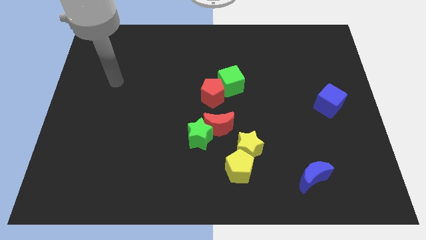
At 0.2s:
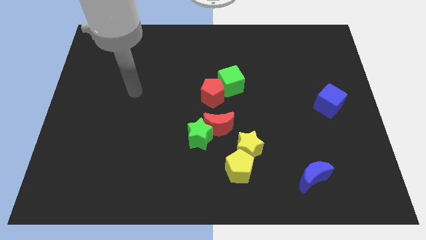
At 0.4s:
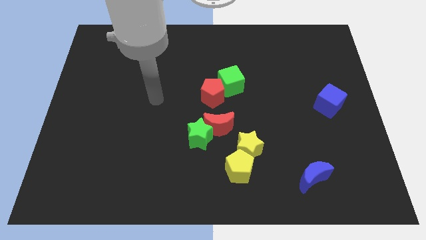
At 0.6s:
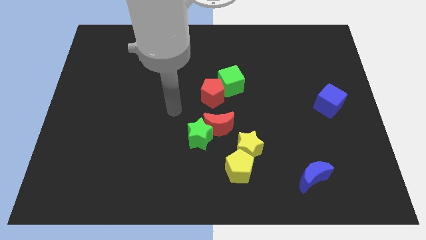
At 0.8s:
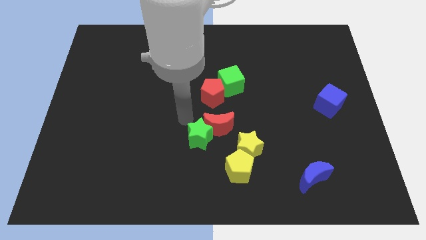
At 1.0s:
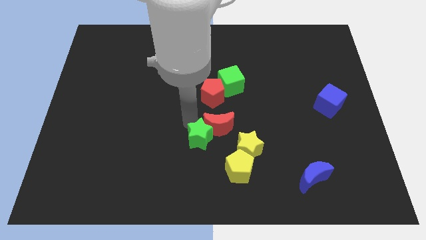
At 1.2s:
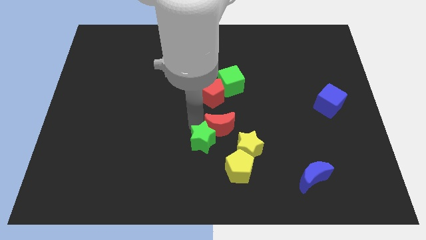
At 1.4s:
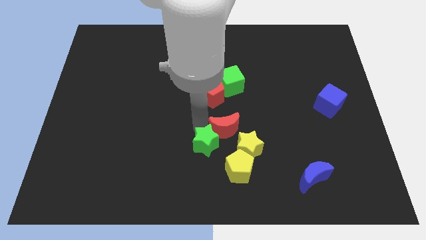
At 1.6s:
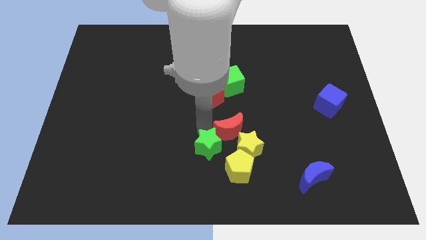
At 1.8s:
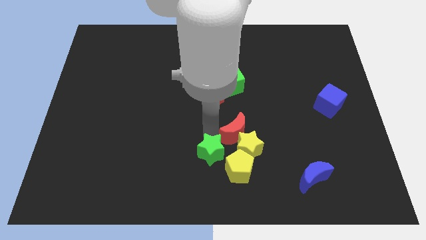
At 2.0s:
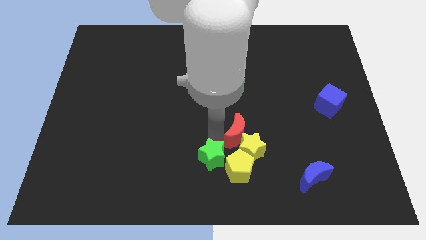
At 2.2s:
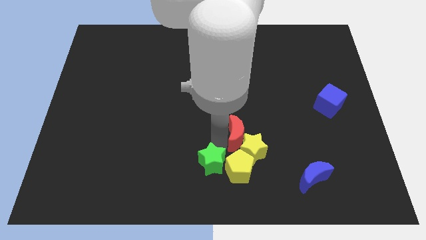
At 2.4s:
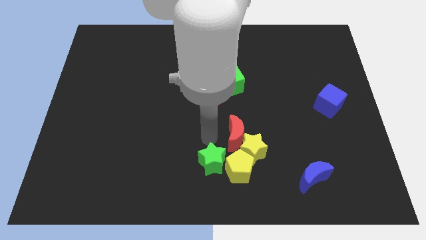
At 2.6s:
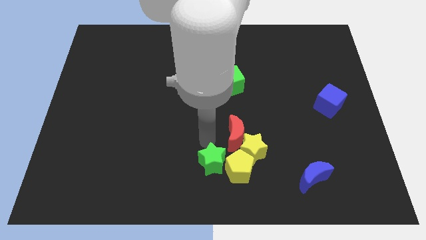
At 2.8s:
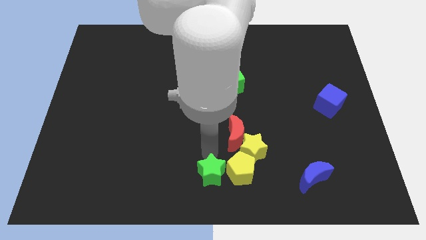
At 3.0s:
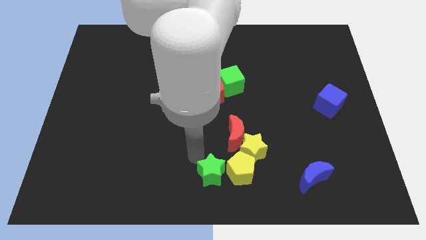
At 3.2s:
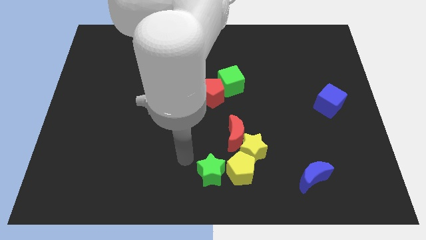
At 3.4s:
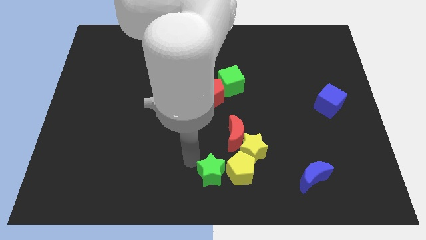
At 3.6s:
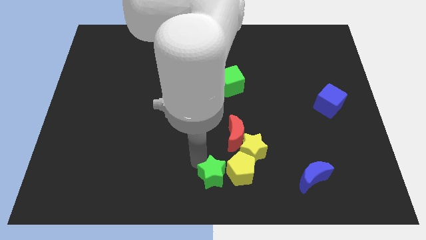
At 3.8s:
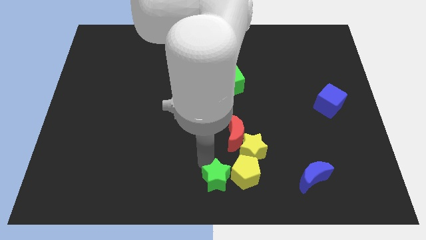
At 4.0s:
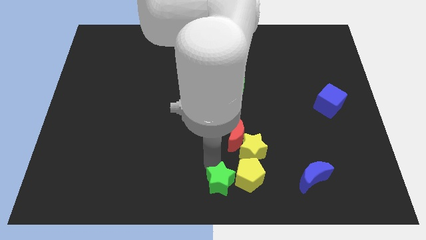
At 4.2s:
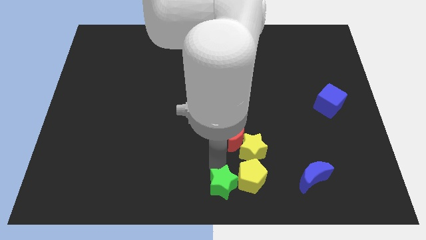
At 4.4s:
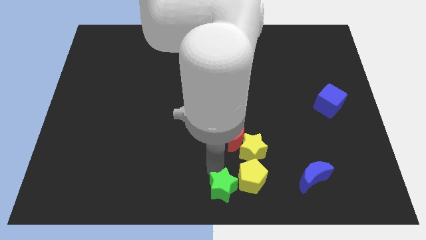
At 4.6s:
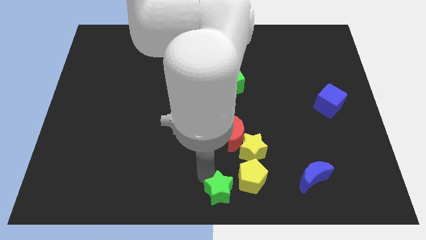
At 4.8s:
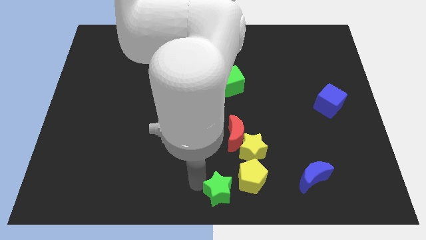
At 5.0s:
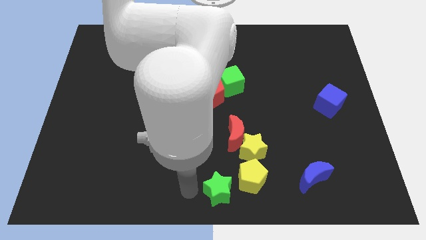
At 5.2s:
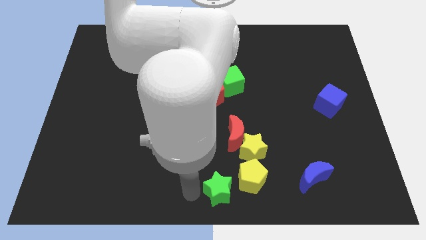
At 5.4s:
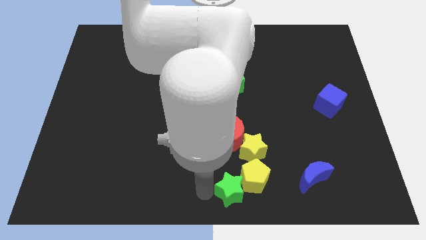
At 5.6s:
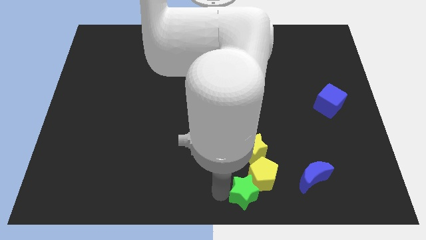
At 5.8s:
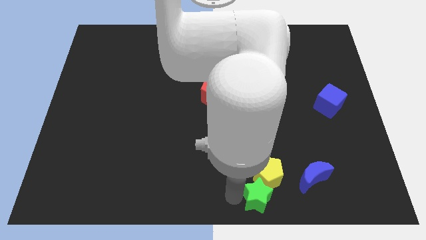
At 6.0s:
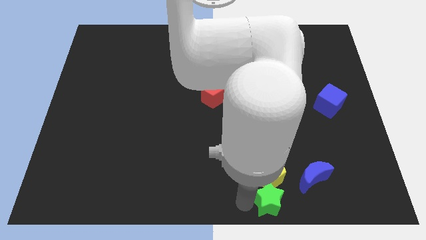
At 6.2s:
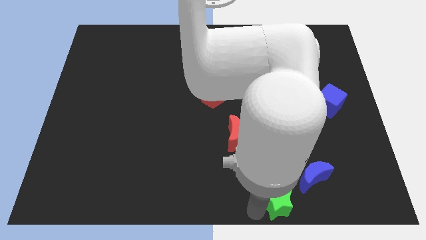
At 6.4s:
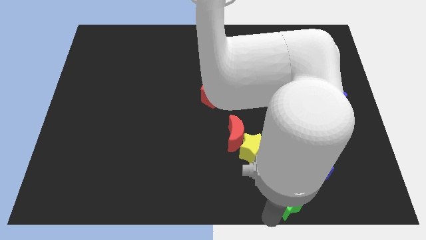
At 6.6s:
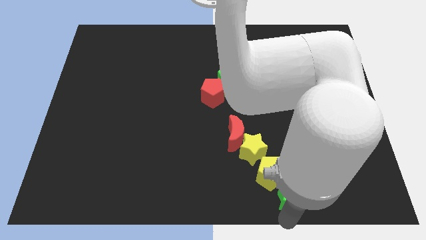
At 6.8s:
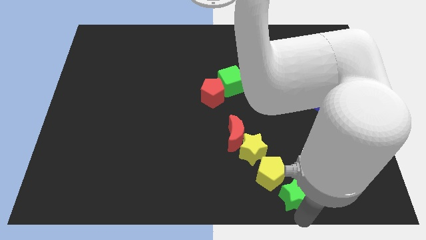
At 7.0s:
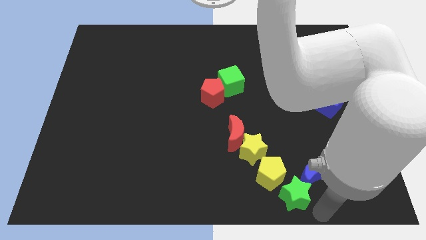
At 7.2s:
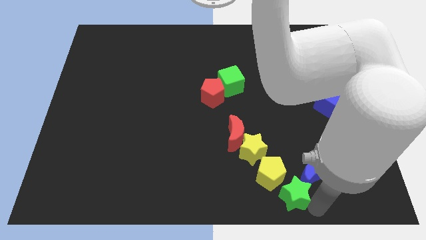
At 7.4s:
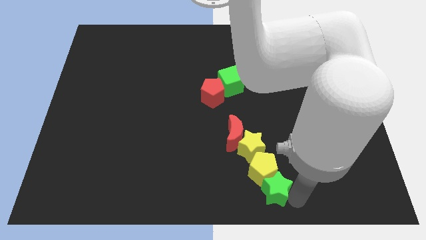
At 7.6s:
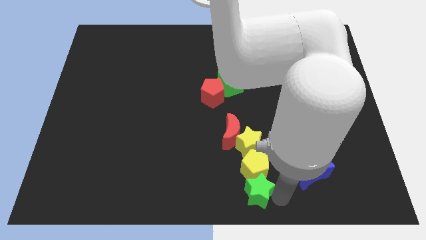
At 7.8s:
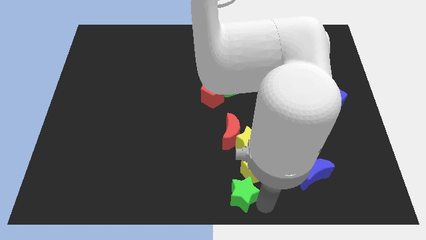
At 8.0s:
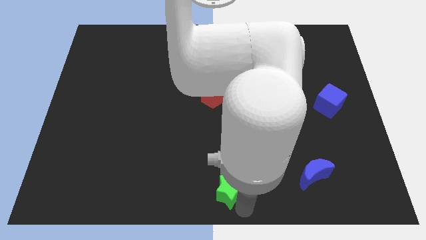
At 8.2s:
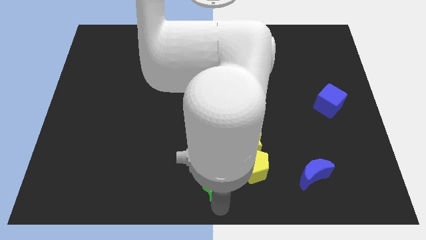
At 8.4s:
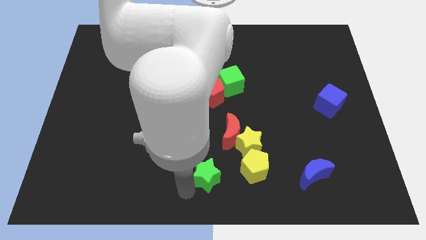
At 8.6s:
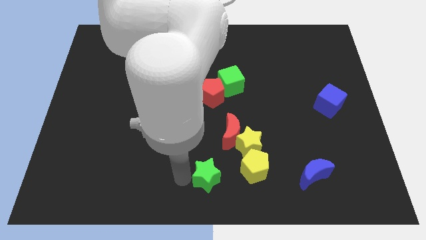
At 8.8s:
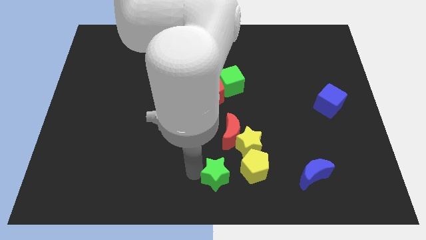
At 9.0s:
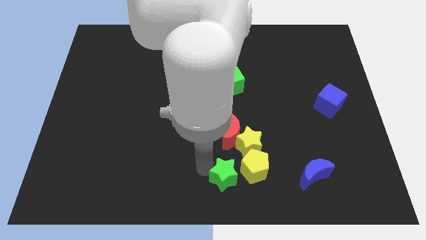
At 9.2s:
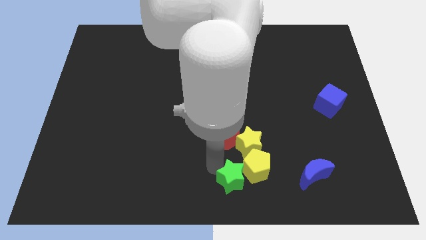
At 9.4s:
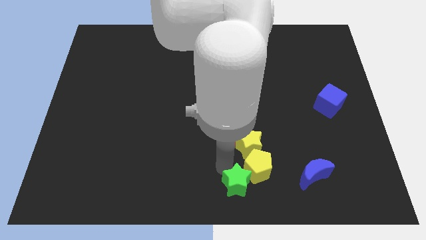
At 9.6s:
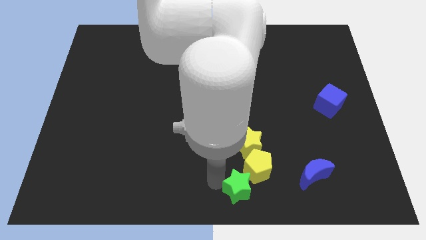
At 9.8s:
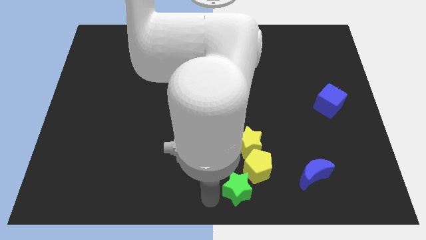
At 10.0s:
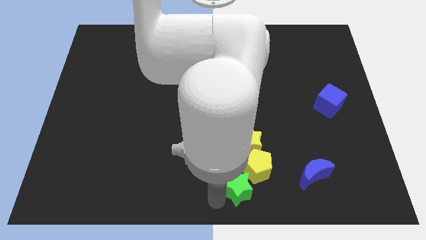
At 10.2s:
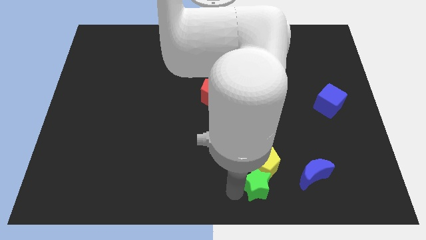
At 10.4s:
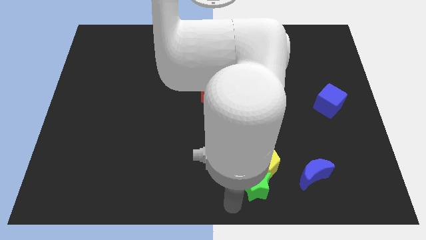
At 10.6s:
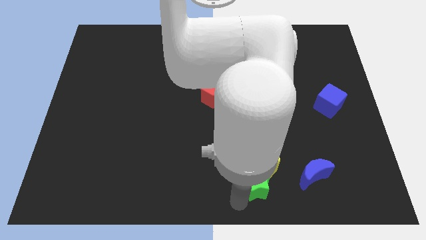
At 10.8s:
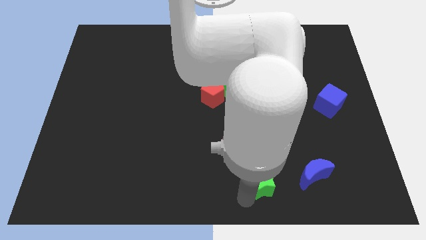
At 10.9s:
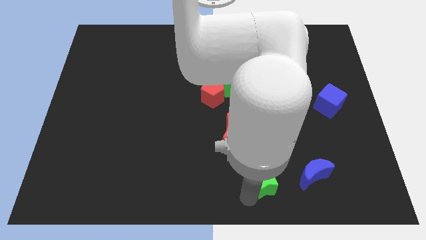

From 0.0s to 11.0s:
slide the green star a little bit to the right

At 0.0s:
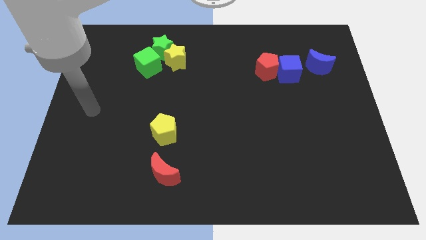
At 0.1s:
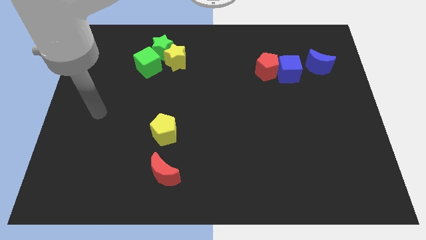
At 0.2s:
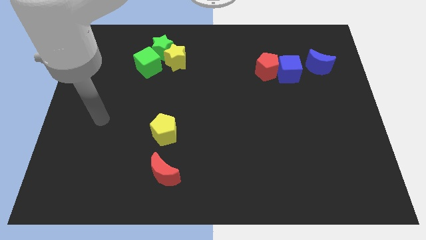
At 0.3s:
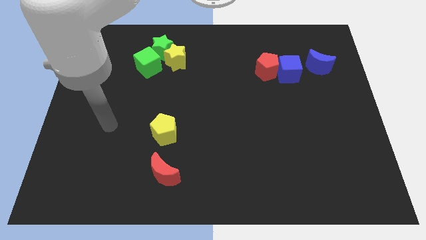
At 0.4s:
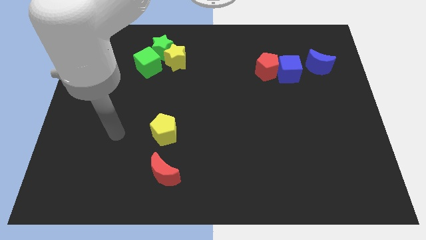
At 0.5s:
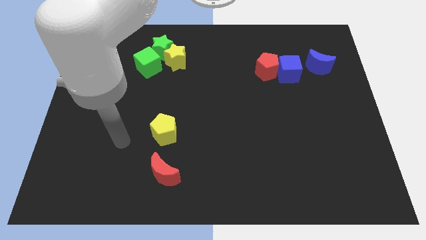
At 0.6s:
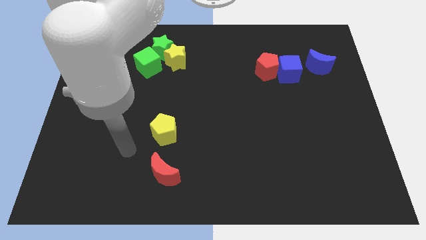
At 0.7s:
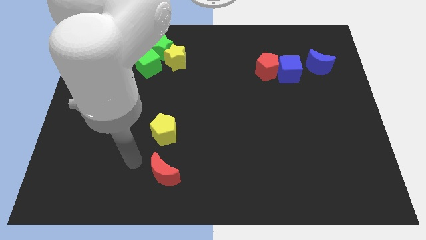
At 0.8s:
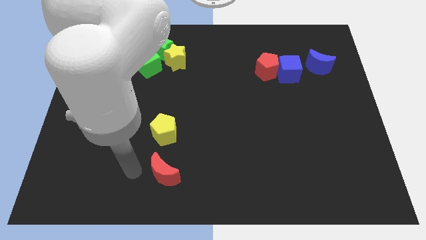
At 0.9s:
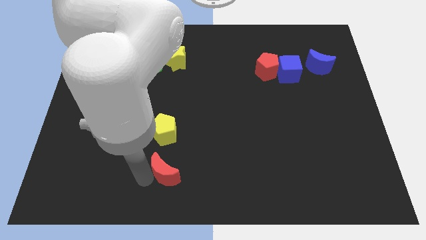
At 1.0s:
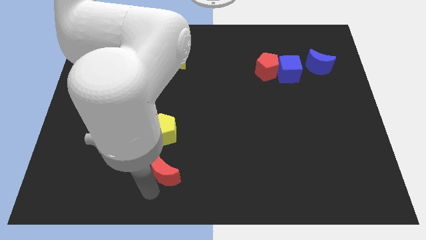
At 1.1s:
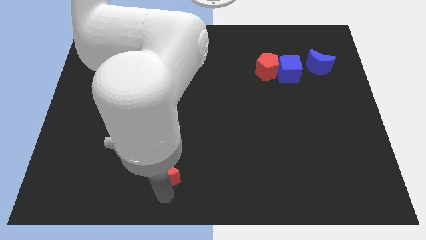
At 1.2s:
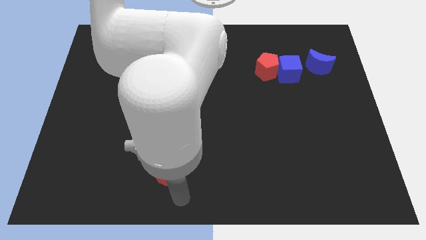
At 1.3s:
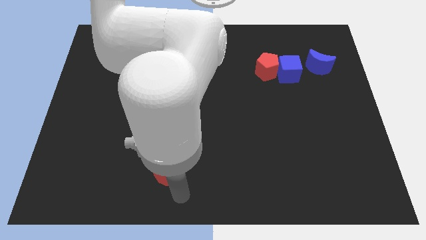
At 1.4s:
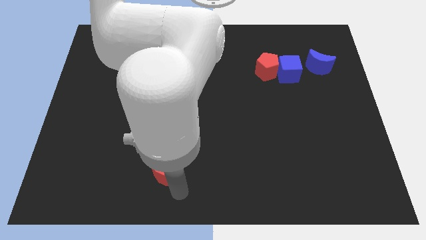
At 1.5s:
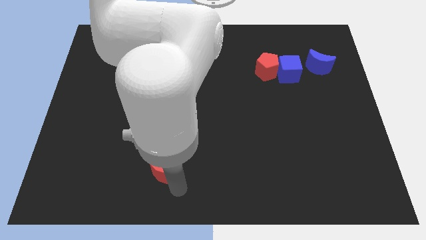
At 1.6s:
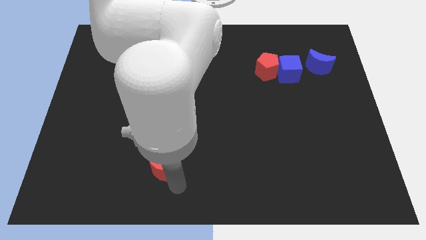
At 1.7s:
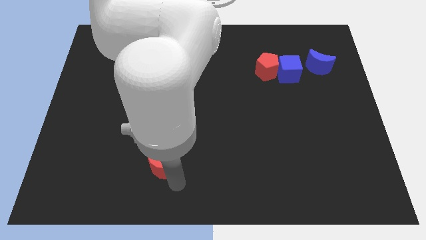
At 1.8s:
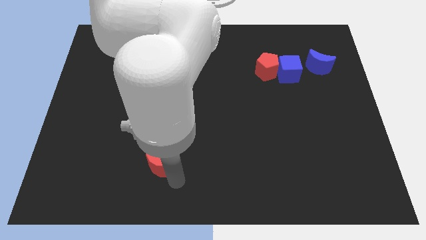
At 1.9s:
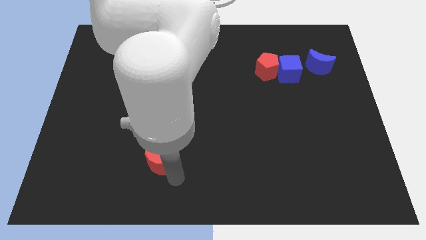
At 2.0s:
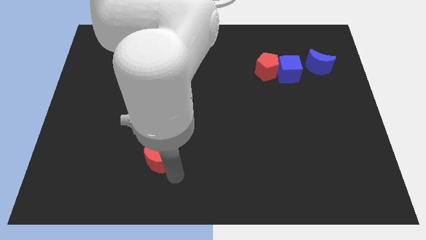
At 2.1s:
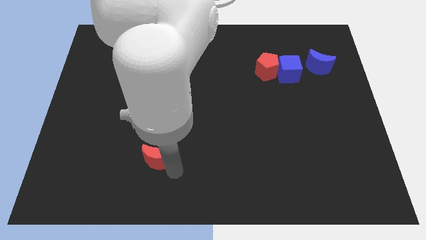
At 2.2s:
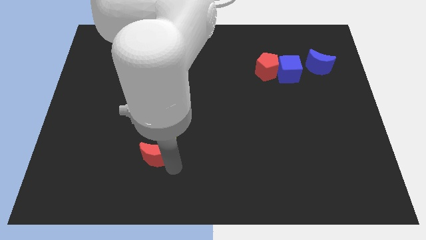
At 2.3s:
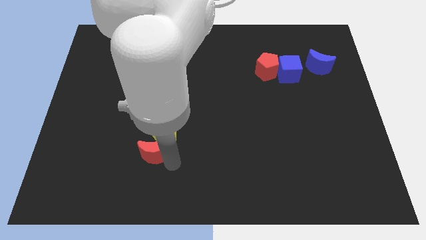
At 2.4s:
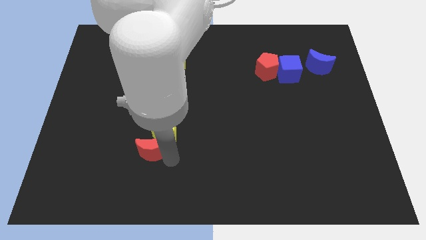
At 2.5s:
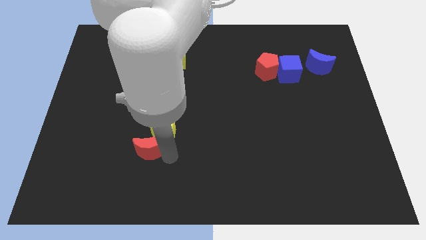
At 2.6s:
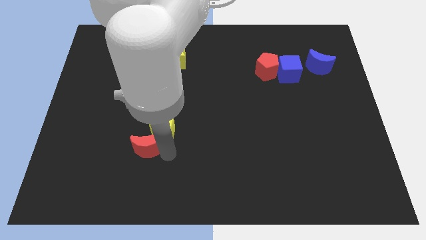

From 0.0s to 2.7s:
slightly push the red moon up and then to the left

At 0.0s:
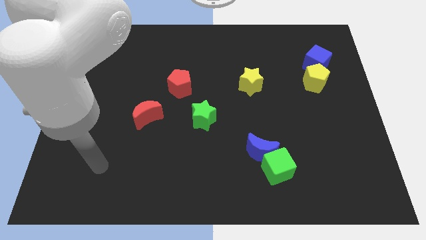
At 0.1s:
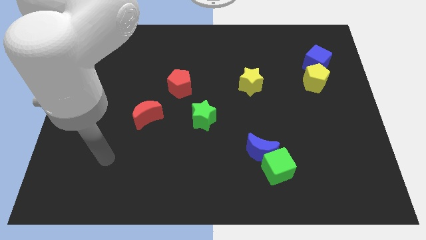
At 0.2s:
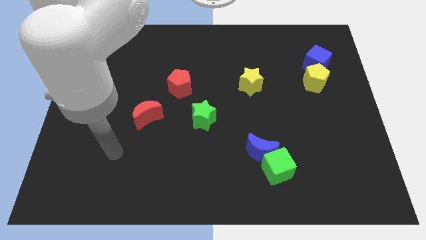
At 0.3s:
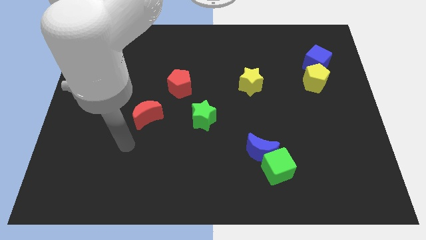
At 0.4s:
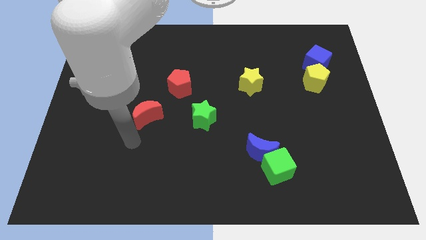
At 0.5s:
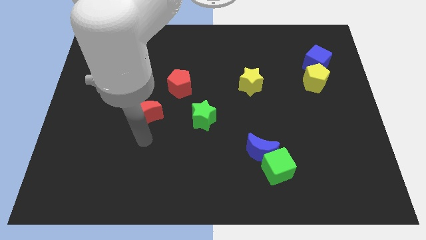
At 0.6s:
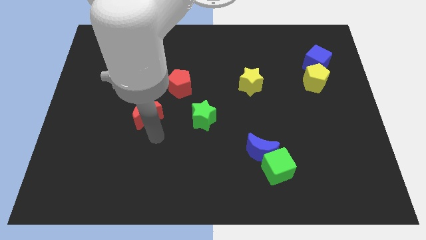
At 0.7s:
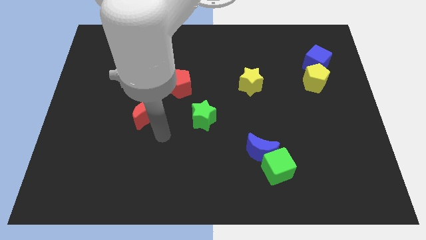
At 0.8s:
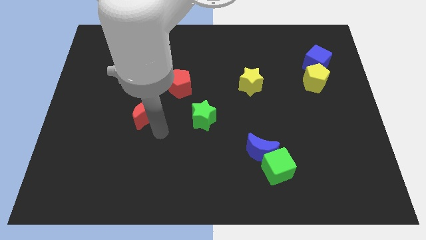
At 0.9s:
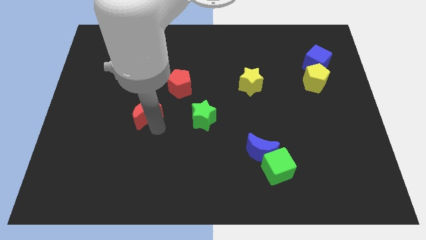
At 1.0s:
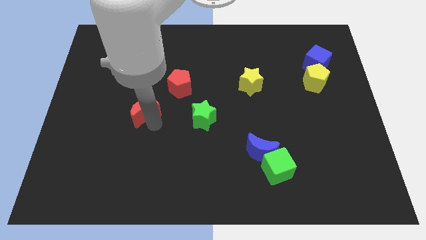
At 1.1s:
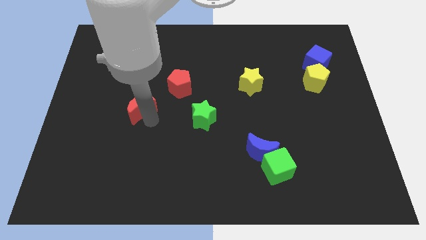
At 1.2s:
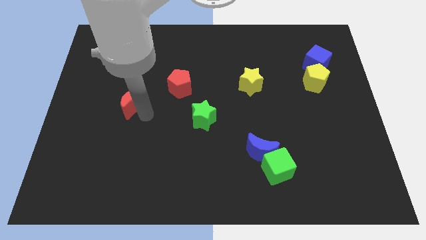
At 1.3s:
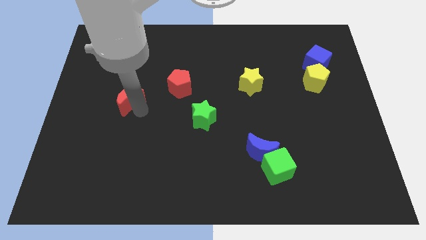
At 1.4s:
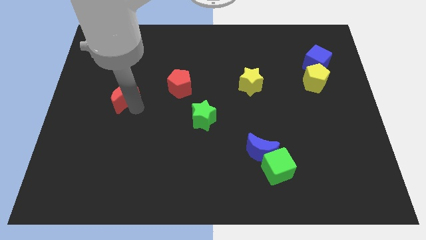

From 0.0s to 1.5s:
push the red moon upwards and left a bit
